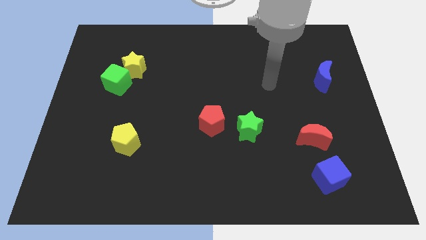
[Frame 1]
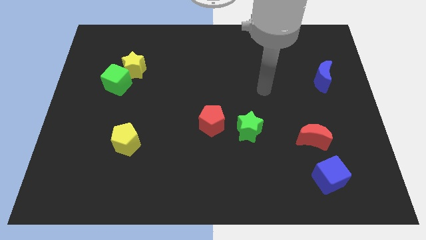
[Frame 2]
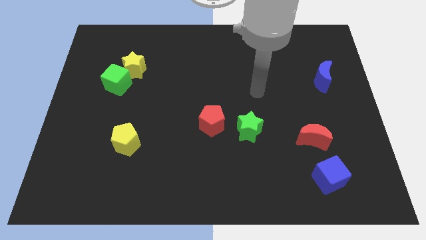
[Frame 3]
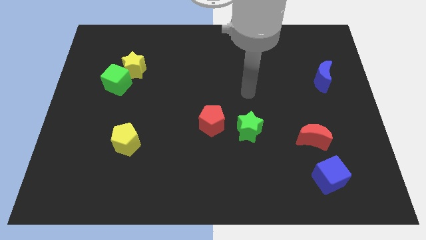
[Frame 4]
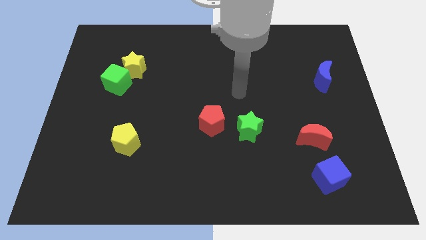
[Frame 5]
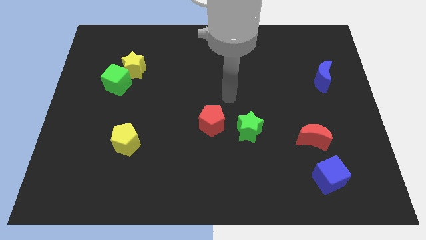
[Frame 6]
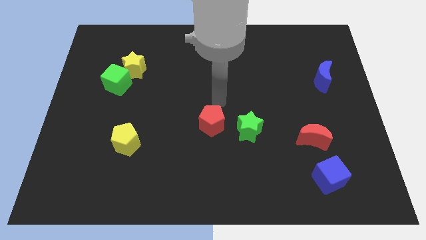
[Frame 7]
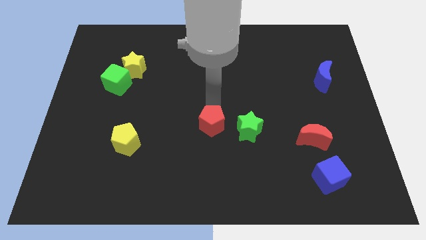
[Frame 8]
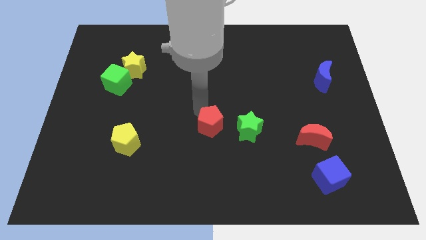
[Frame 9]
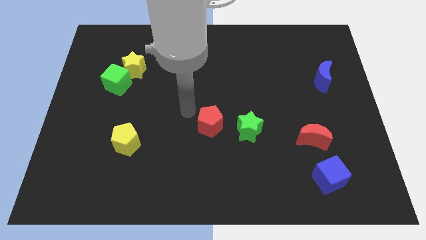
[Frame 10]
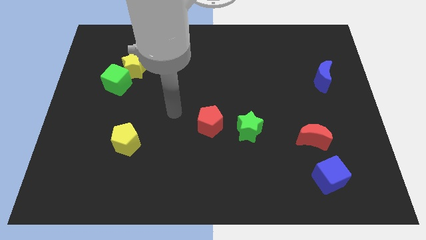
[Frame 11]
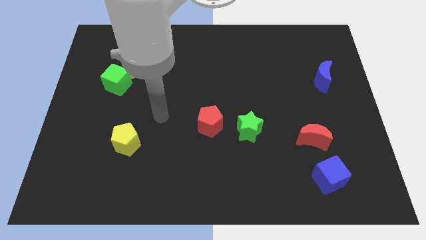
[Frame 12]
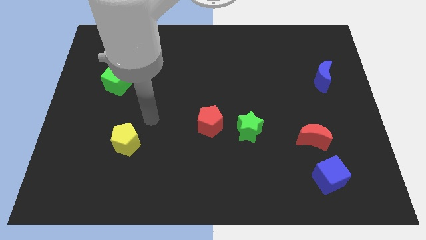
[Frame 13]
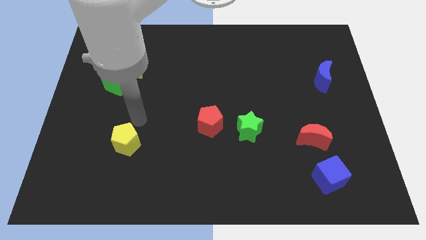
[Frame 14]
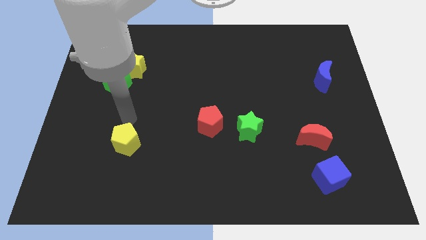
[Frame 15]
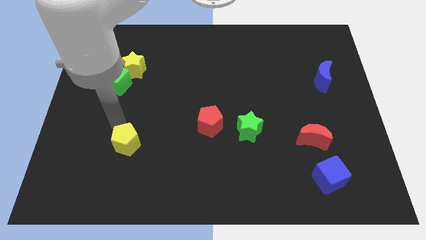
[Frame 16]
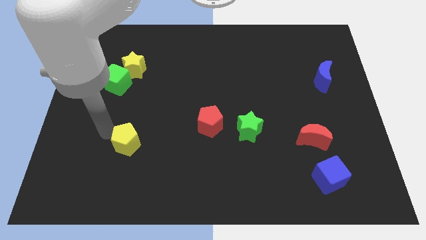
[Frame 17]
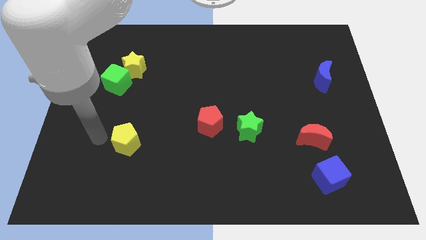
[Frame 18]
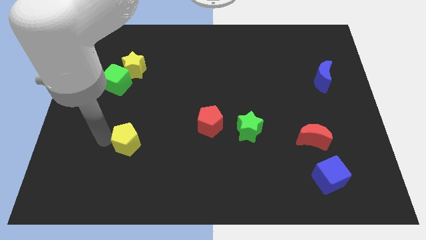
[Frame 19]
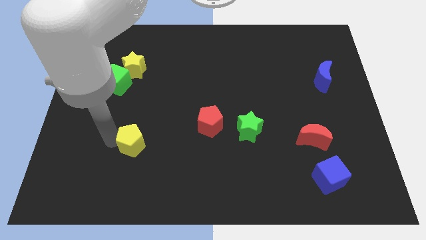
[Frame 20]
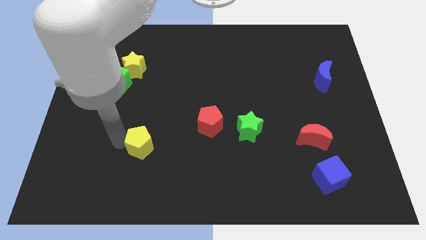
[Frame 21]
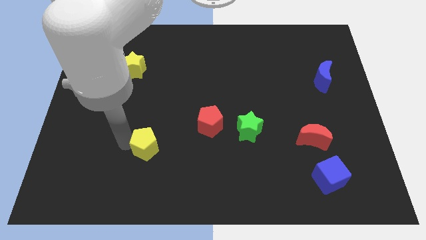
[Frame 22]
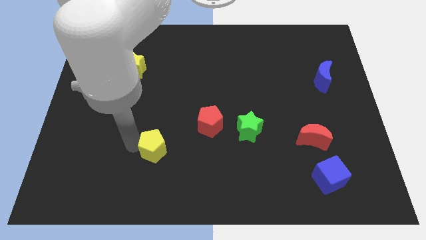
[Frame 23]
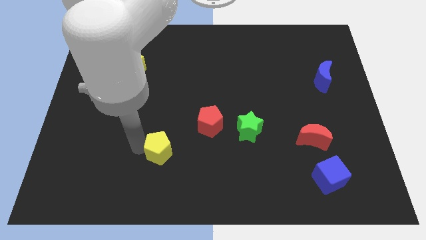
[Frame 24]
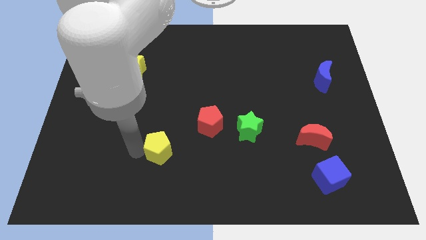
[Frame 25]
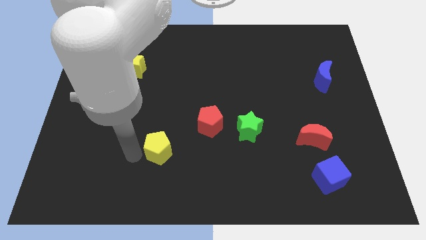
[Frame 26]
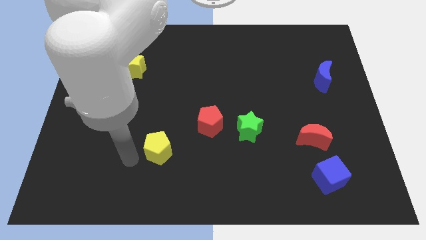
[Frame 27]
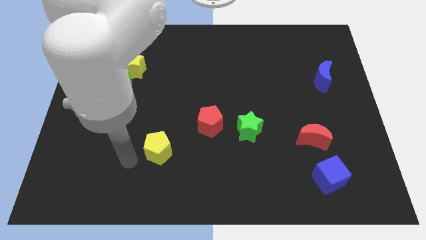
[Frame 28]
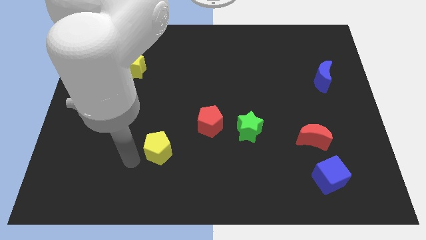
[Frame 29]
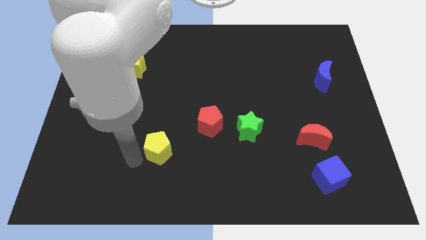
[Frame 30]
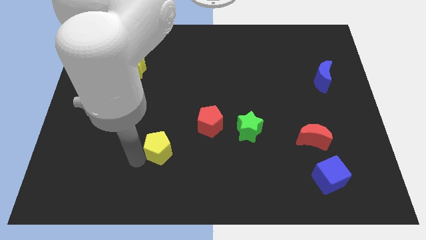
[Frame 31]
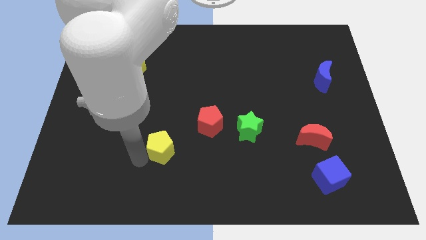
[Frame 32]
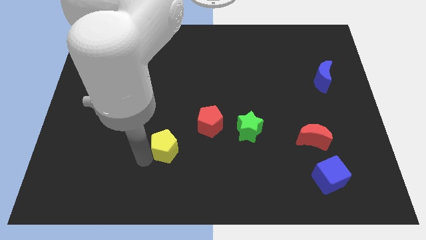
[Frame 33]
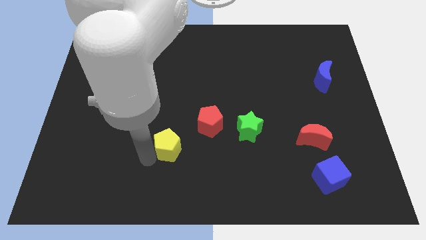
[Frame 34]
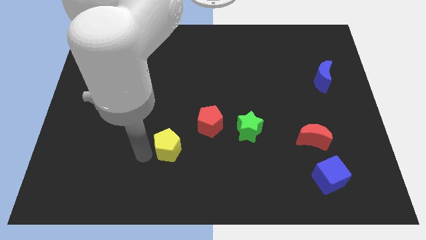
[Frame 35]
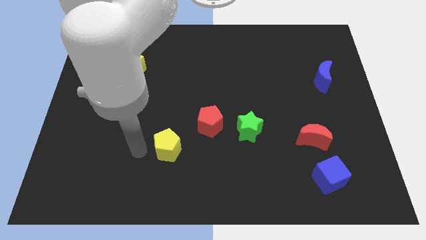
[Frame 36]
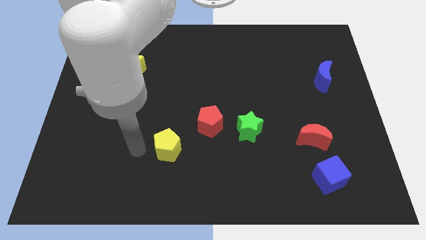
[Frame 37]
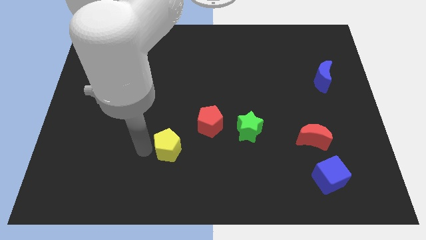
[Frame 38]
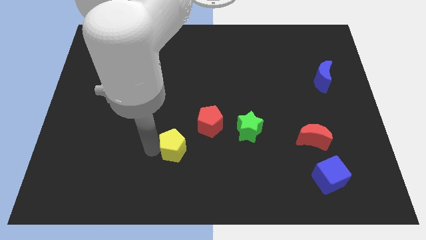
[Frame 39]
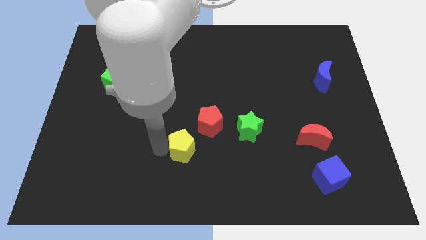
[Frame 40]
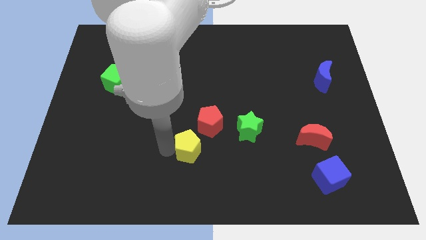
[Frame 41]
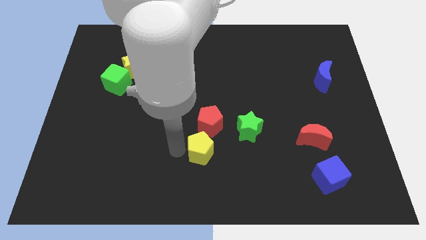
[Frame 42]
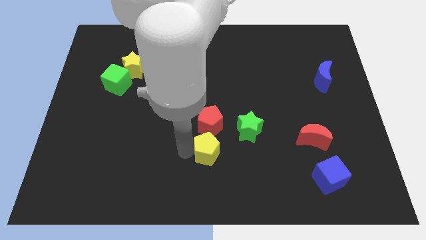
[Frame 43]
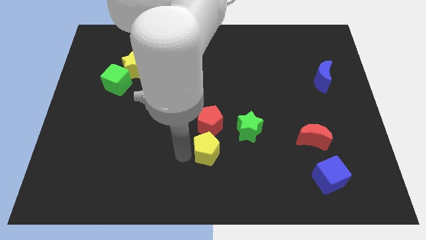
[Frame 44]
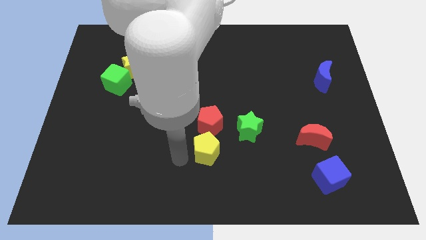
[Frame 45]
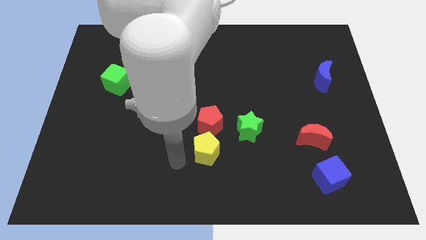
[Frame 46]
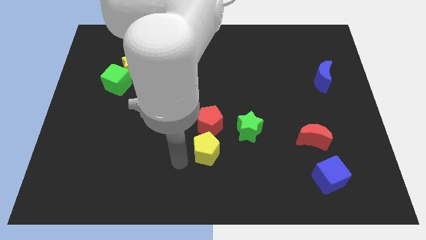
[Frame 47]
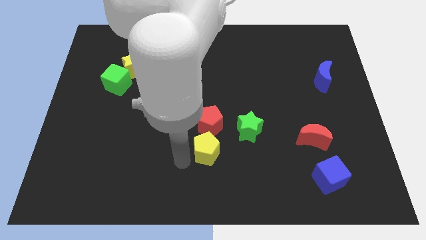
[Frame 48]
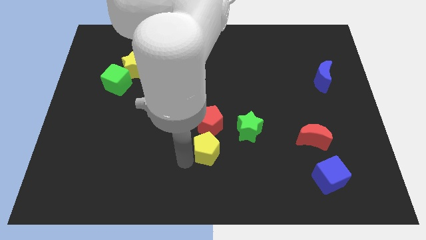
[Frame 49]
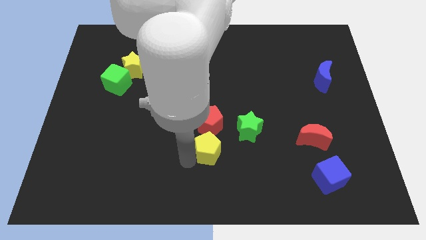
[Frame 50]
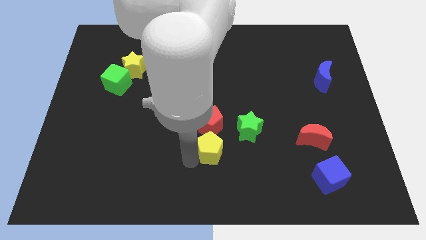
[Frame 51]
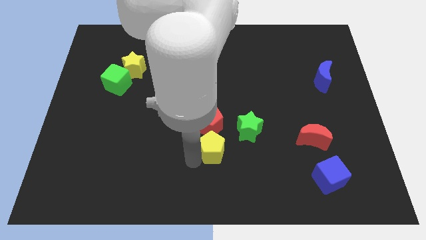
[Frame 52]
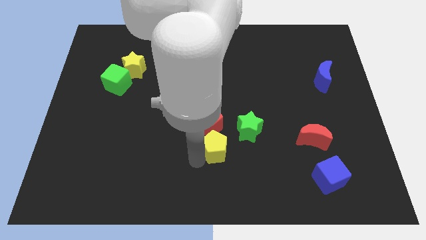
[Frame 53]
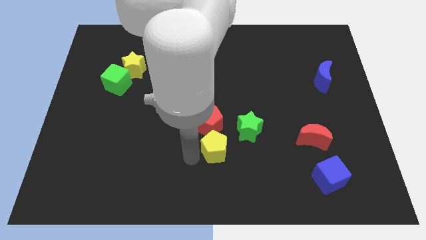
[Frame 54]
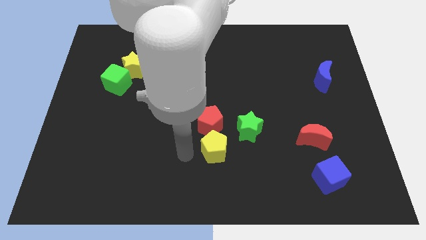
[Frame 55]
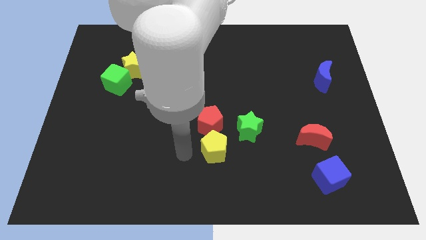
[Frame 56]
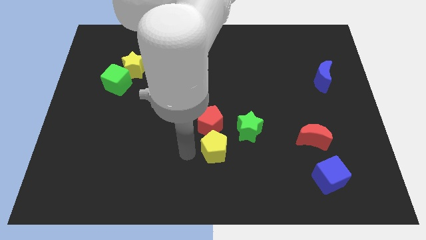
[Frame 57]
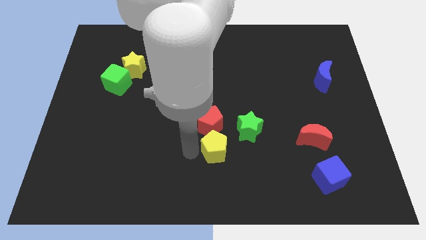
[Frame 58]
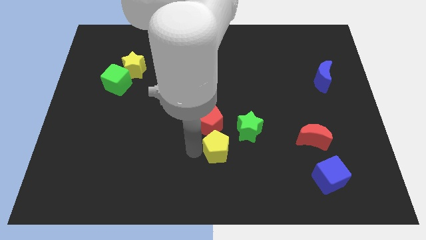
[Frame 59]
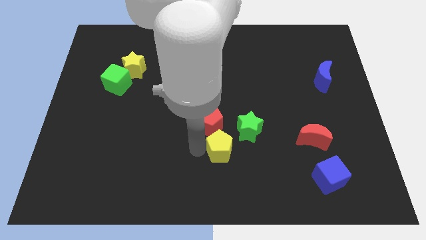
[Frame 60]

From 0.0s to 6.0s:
slide the yellow pentagon right

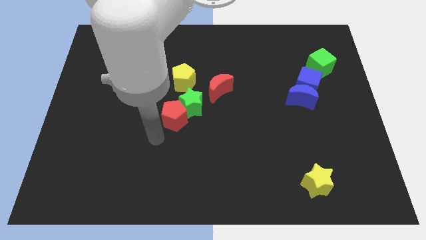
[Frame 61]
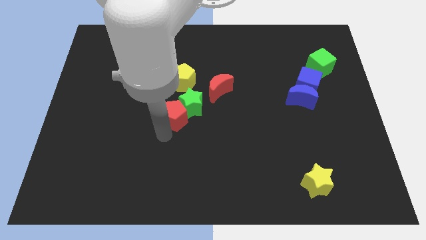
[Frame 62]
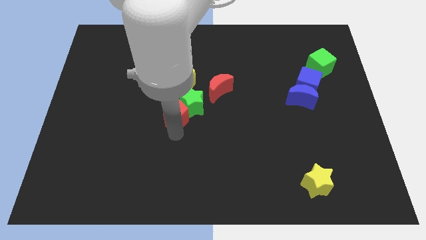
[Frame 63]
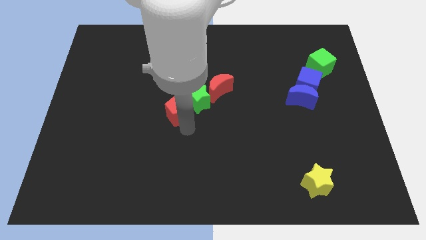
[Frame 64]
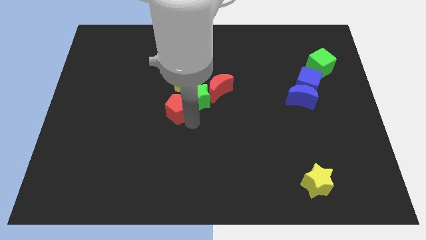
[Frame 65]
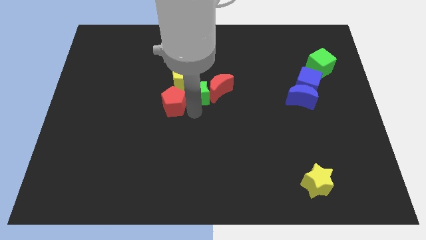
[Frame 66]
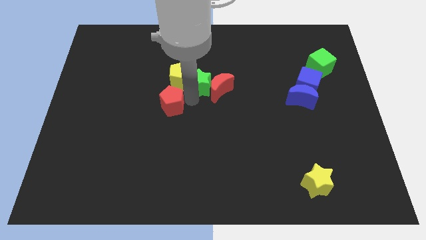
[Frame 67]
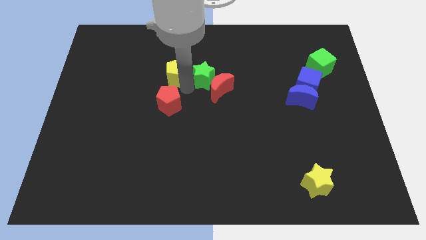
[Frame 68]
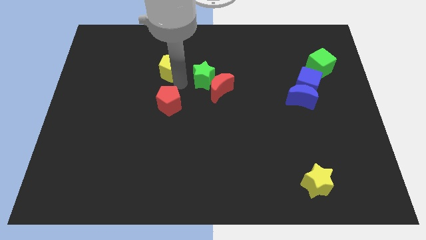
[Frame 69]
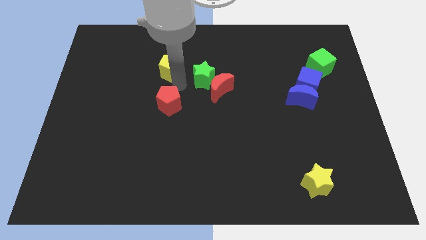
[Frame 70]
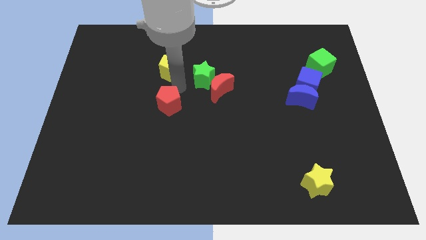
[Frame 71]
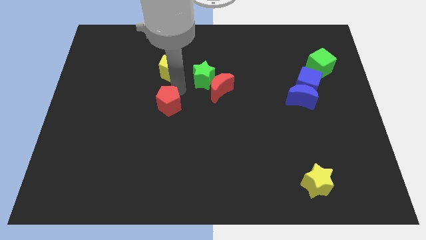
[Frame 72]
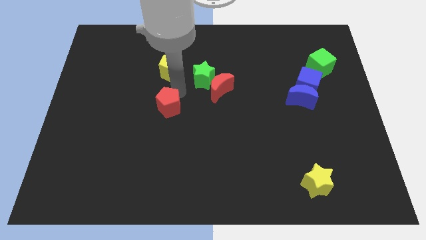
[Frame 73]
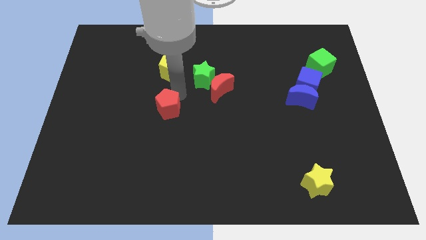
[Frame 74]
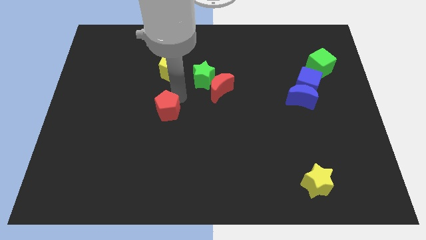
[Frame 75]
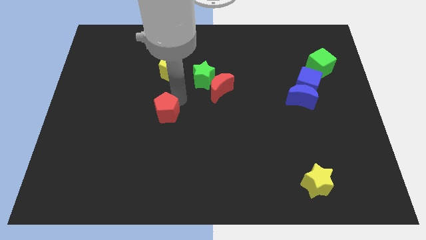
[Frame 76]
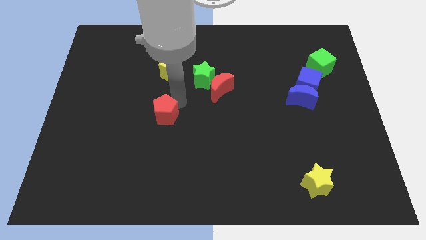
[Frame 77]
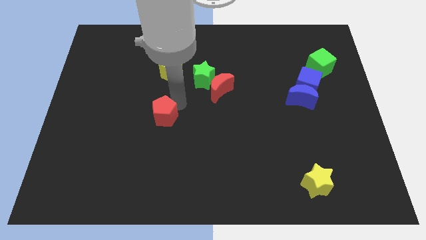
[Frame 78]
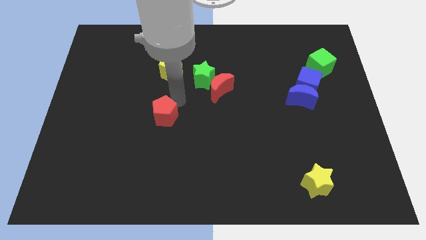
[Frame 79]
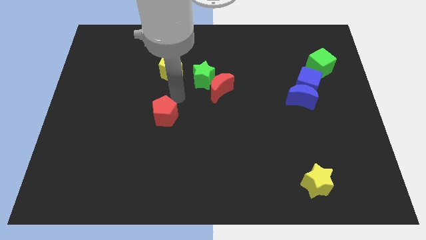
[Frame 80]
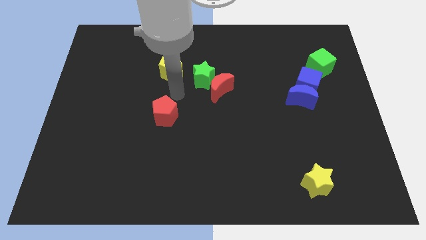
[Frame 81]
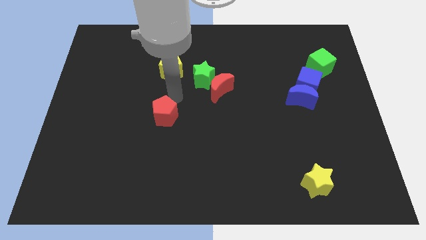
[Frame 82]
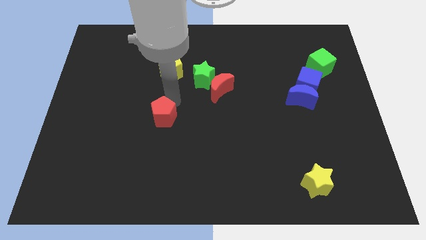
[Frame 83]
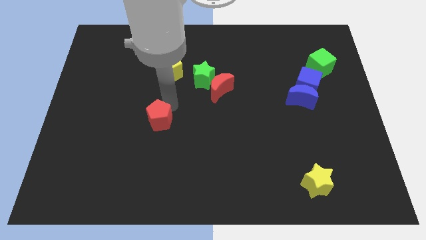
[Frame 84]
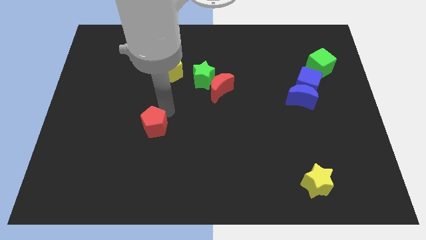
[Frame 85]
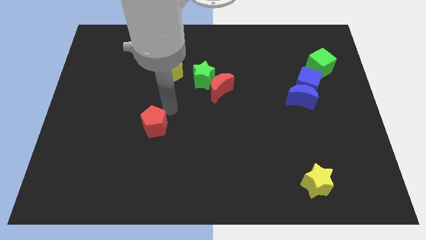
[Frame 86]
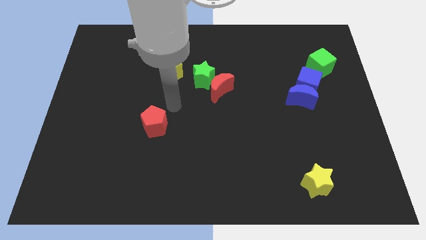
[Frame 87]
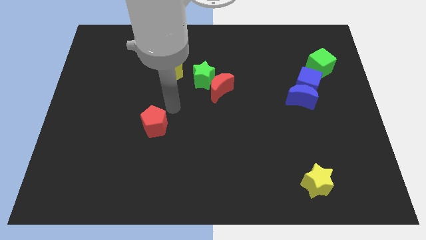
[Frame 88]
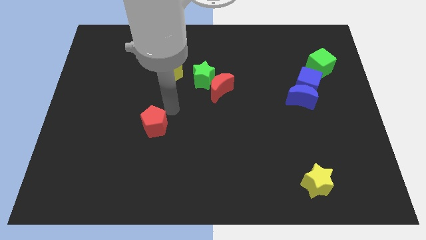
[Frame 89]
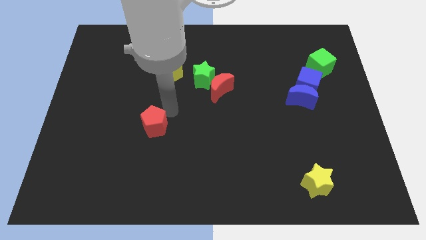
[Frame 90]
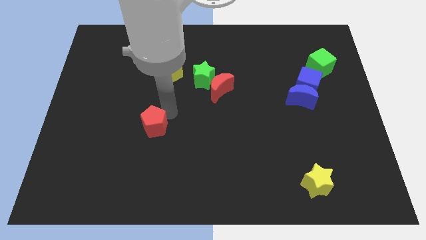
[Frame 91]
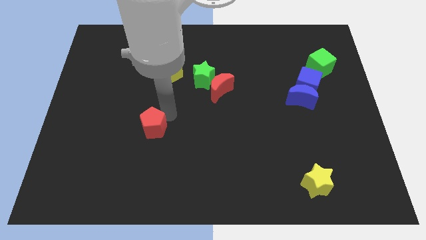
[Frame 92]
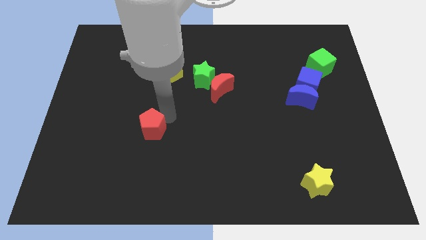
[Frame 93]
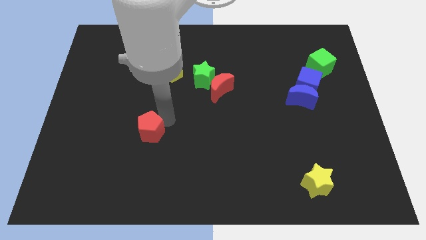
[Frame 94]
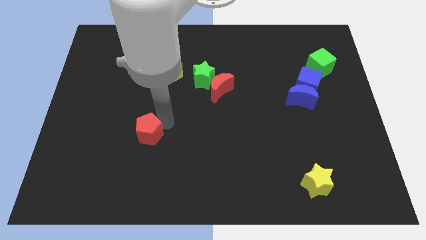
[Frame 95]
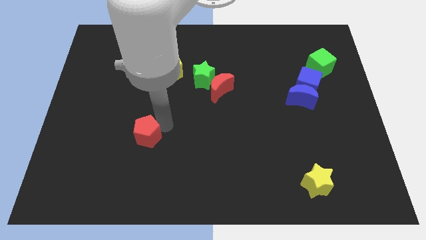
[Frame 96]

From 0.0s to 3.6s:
slide the red pentagon a bit down and left
